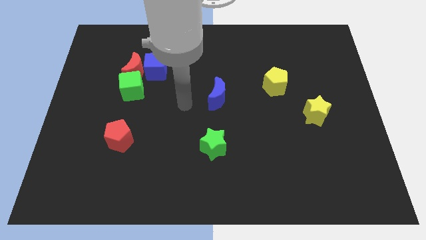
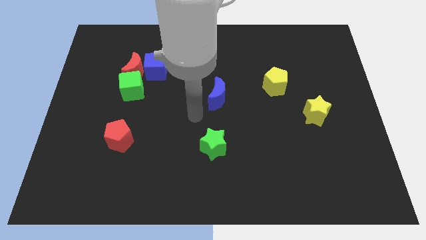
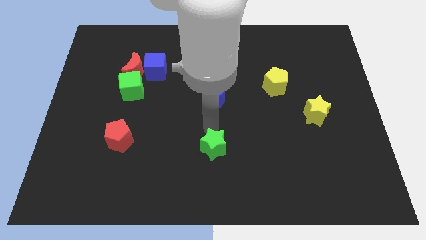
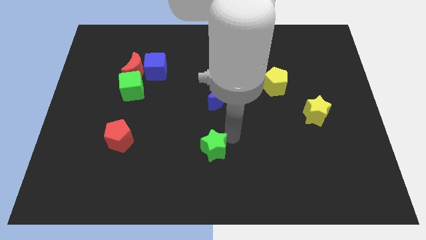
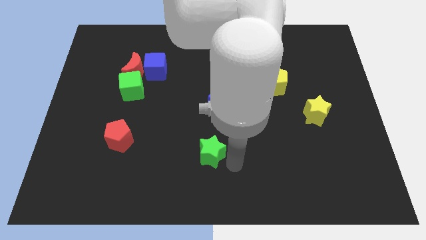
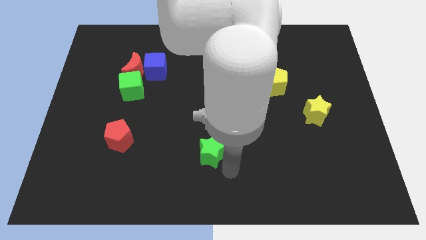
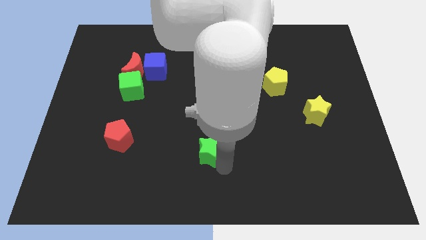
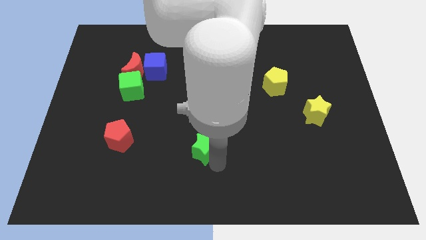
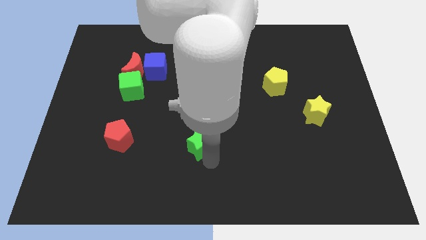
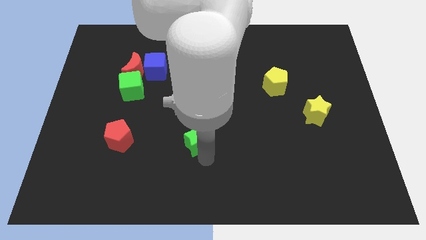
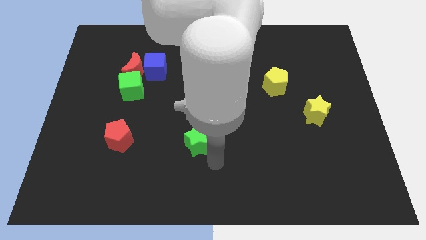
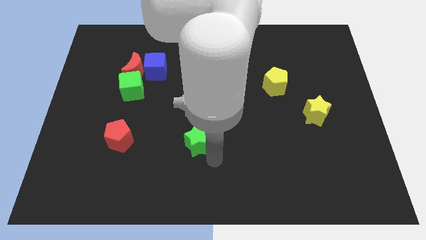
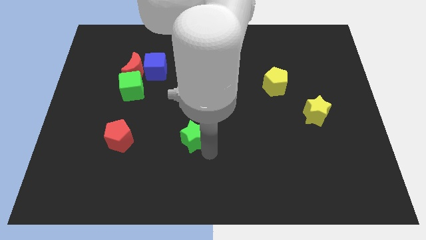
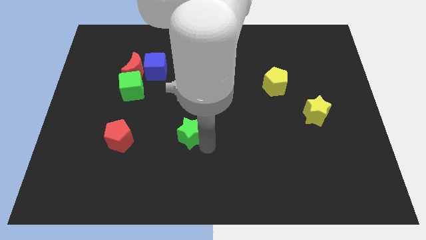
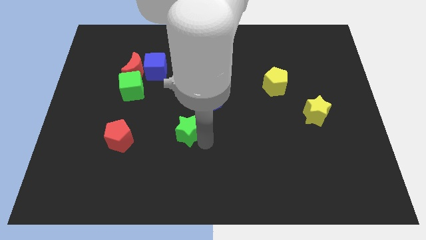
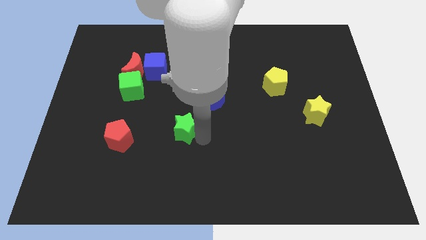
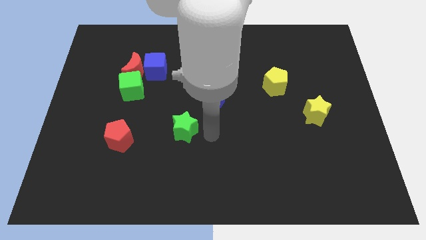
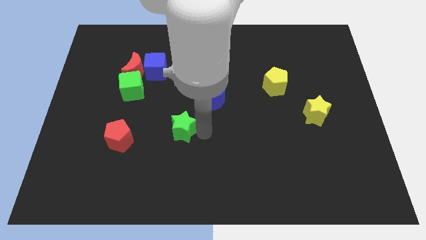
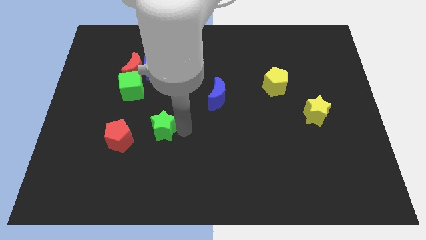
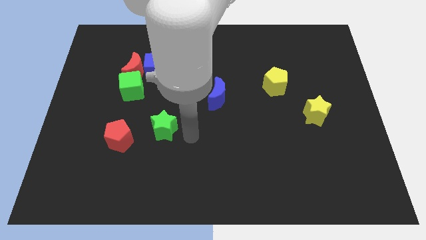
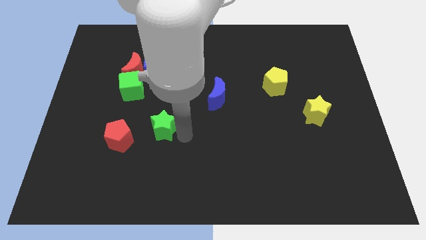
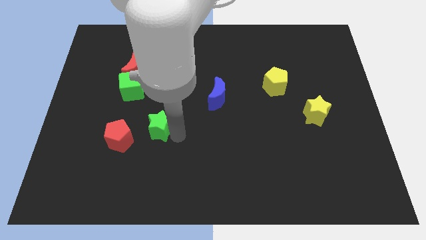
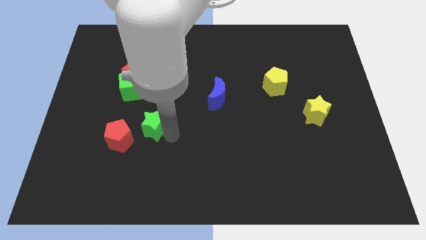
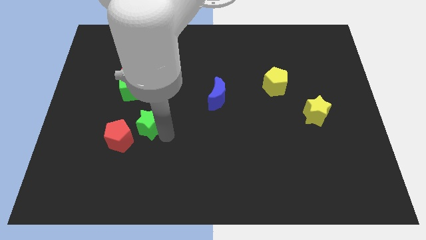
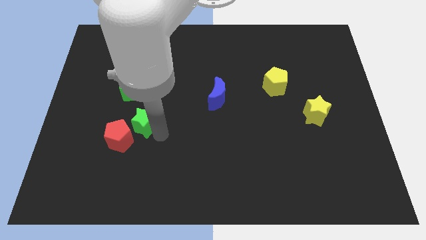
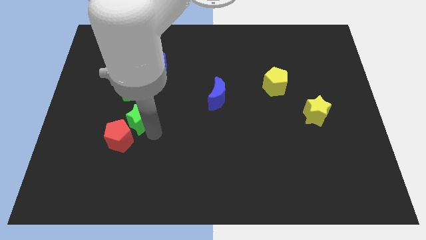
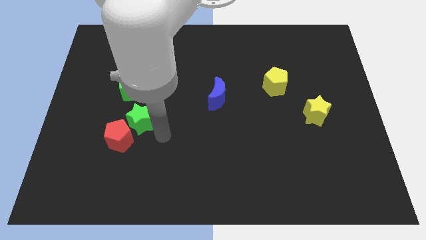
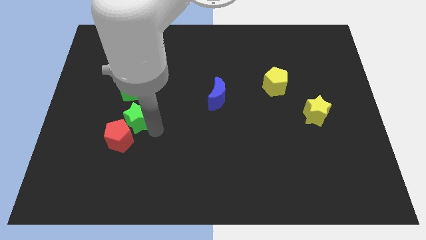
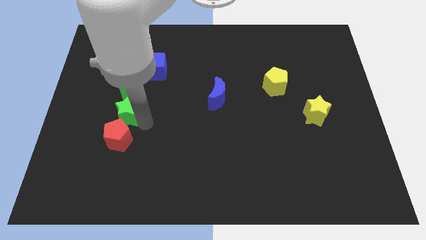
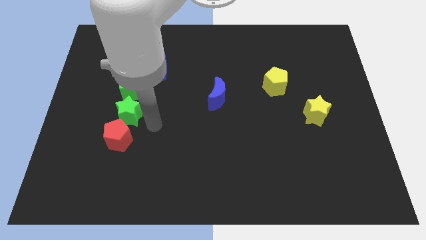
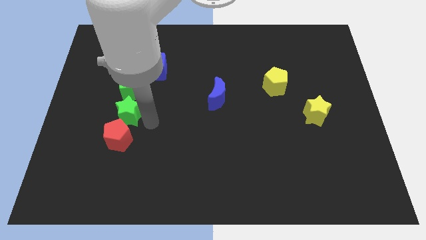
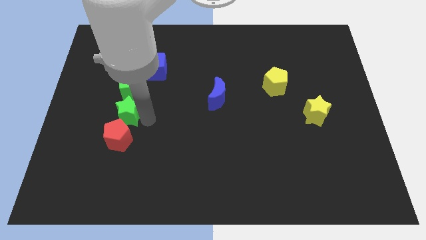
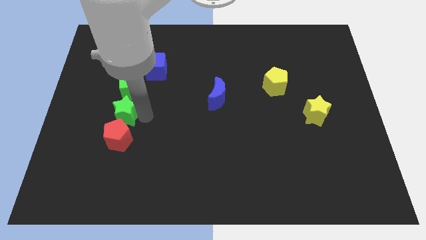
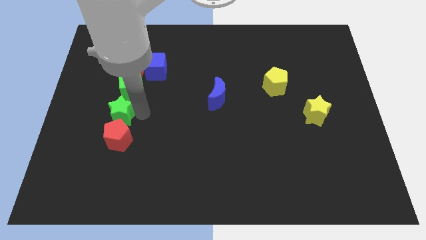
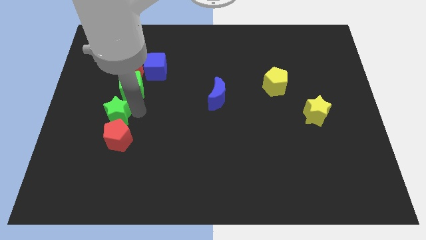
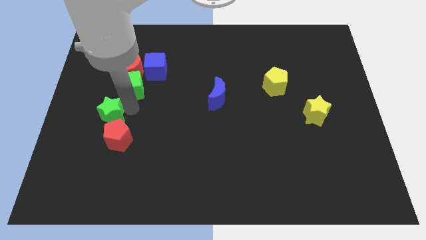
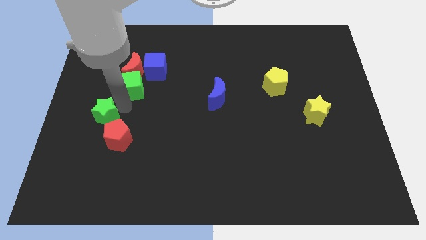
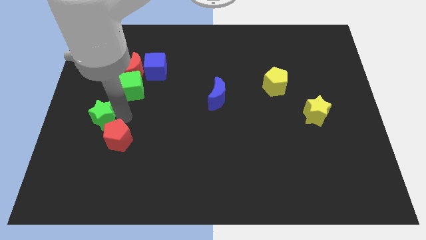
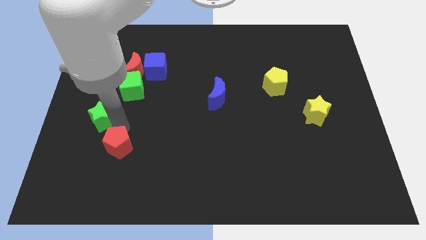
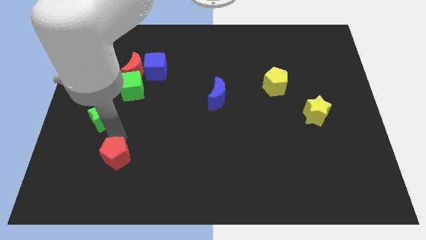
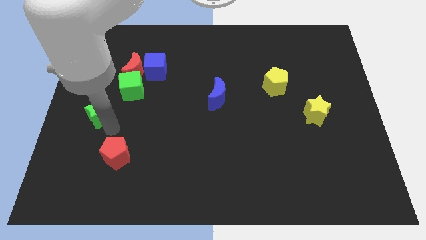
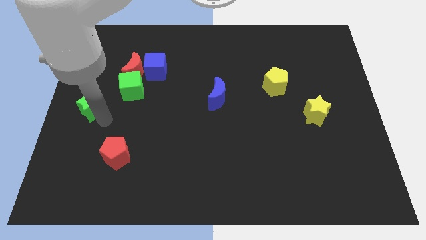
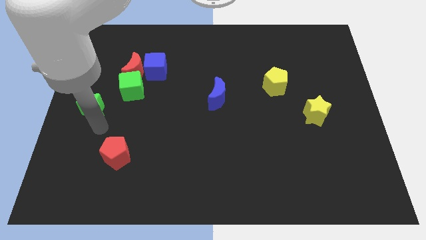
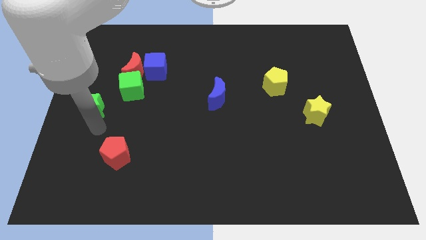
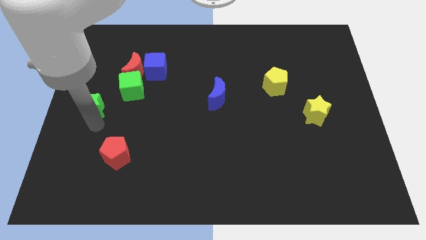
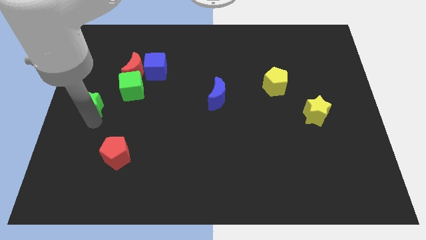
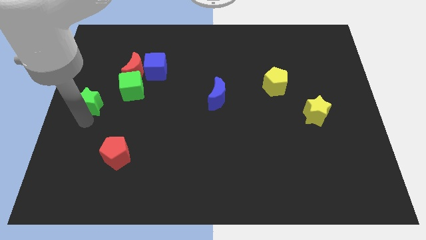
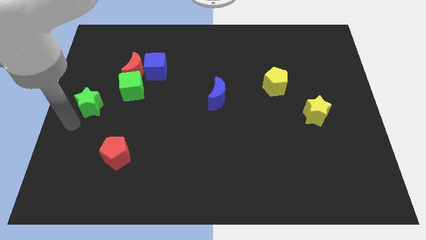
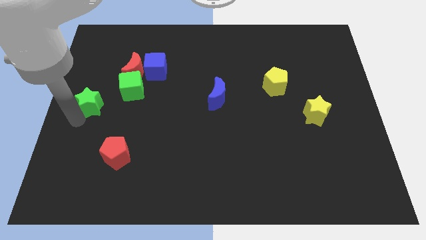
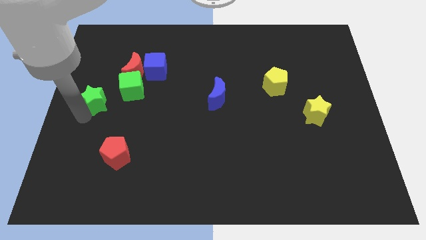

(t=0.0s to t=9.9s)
slide the green star to the bottom left of the red moon

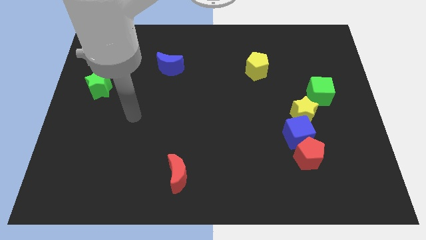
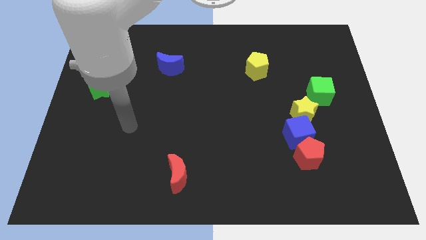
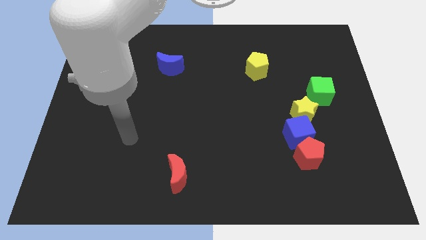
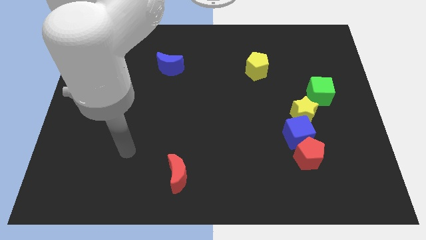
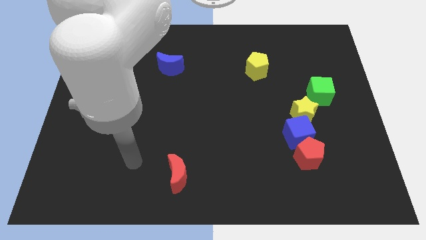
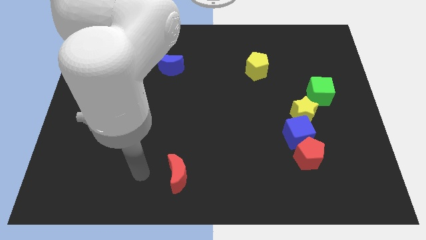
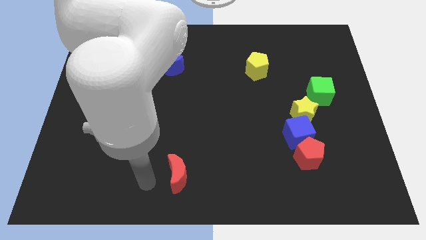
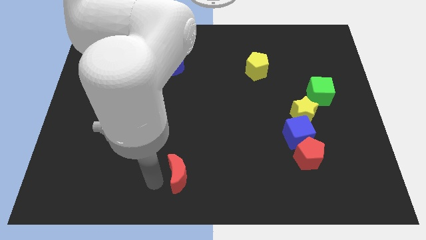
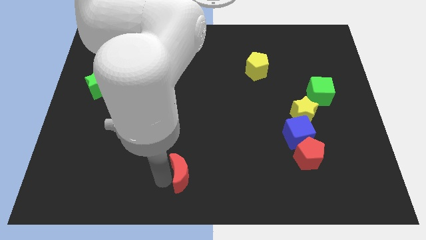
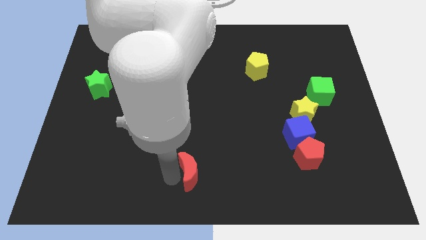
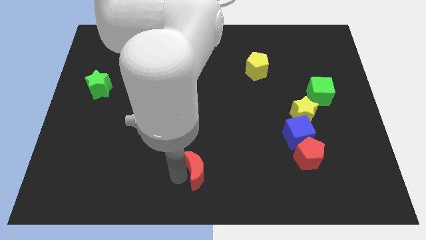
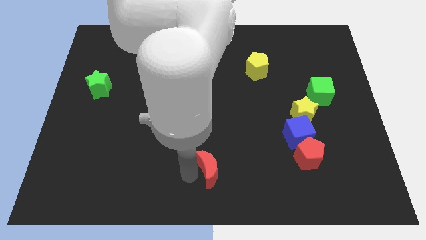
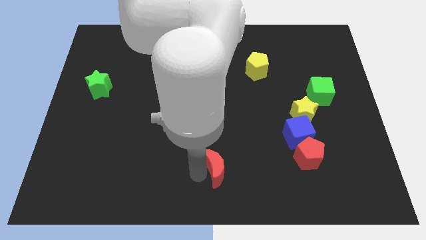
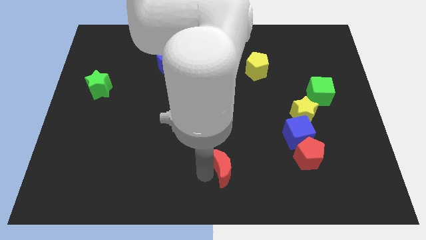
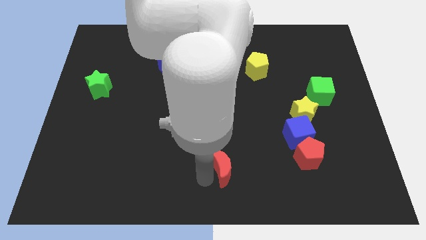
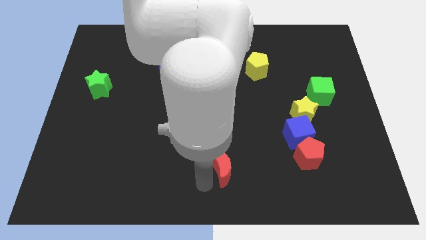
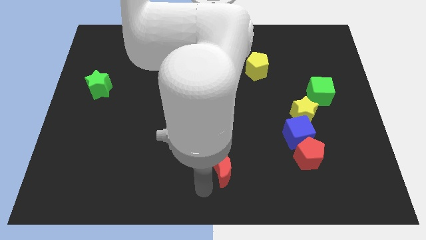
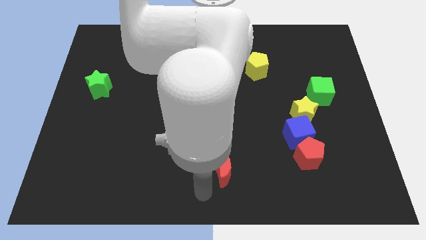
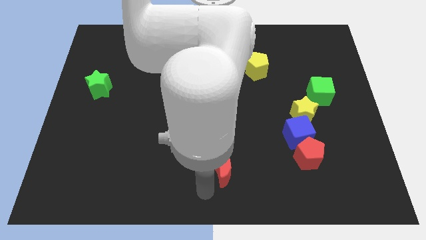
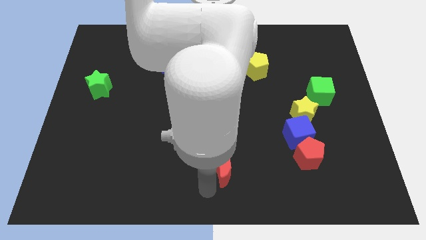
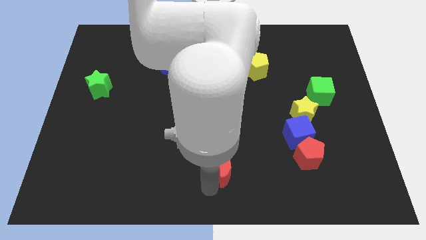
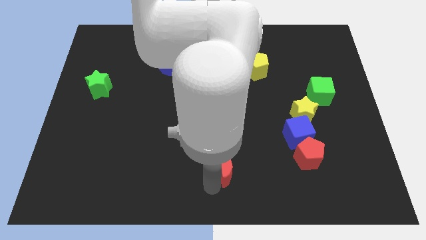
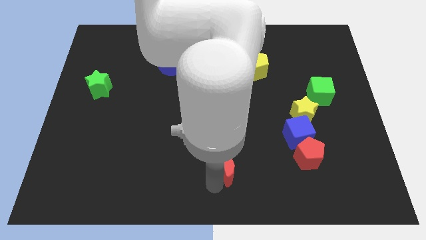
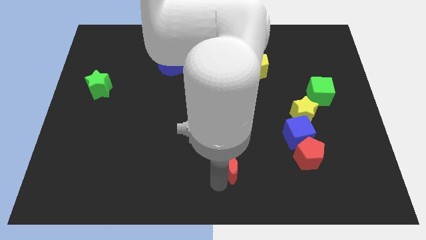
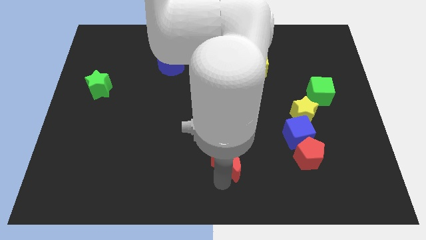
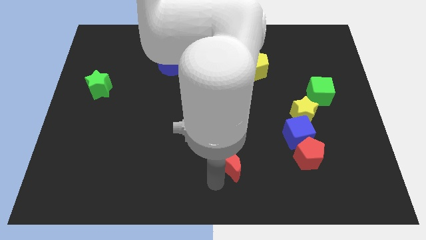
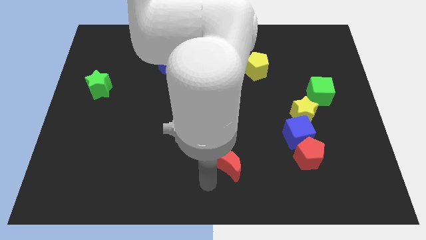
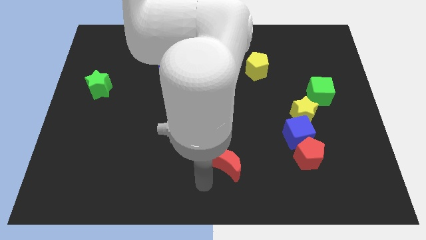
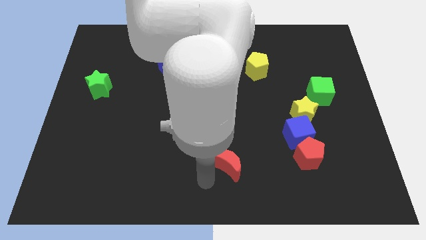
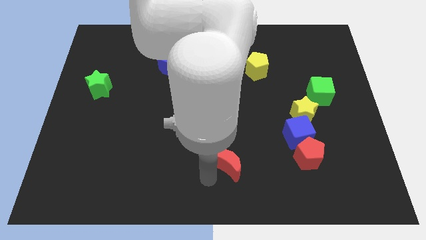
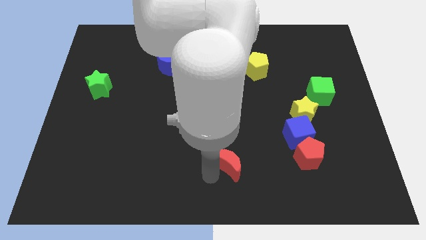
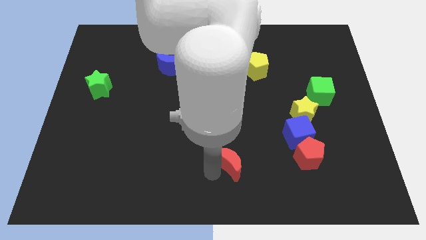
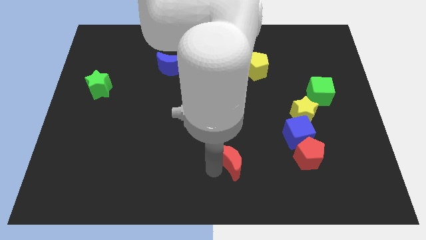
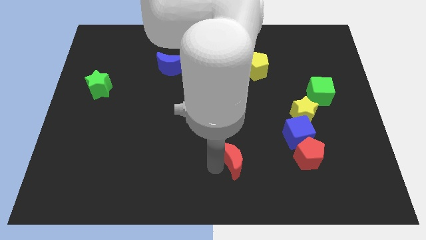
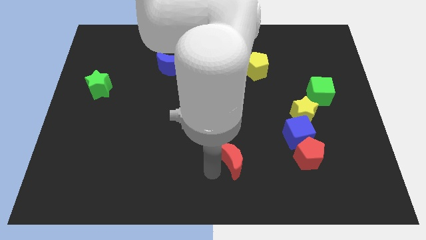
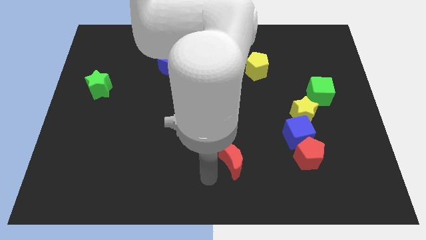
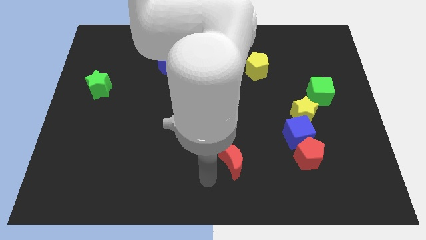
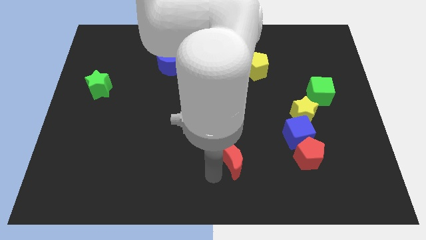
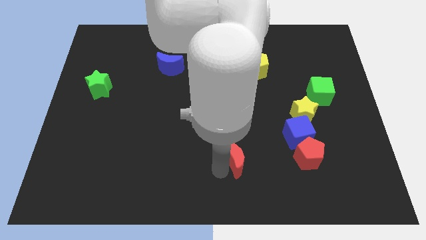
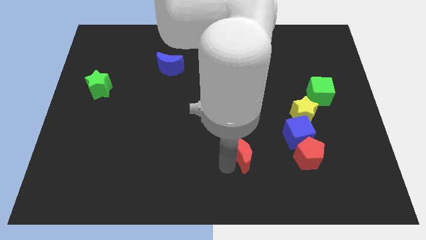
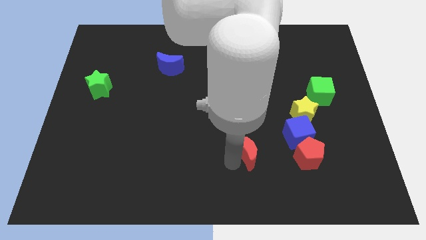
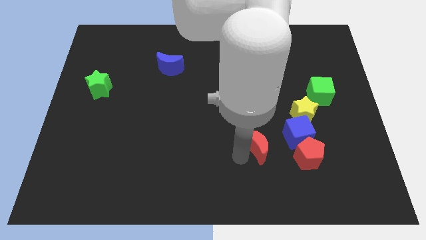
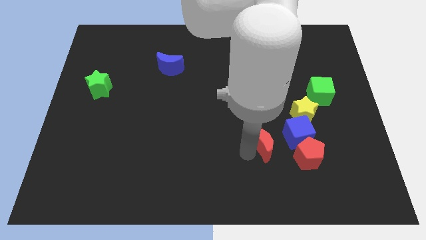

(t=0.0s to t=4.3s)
push the red moon to the bottom left of the yellow star
